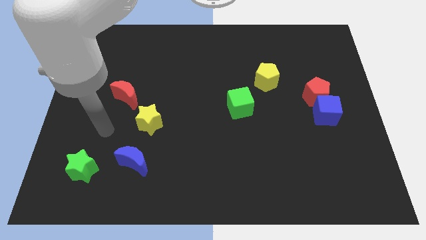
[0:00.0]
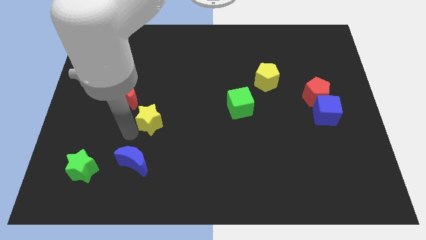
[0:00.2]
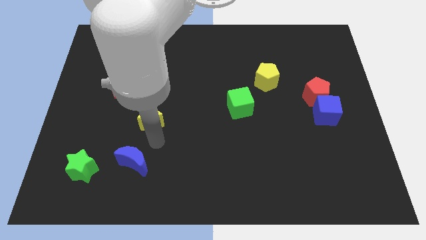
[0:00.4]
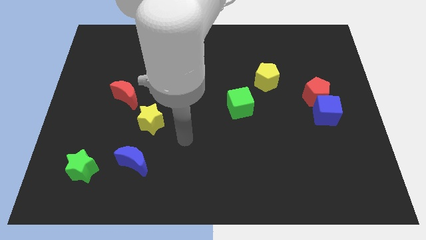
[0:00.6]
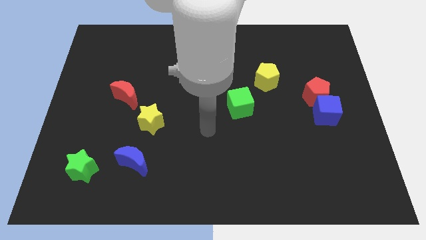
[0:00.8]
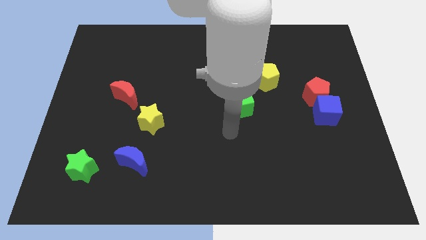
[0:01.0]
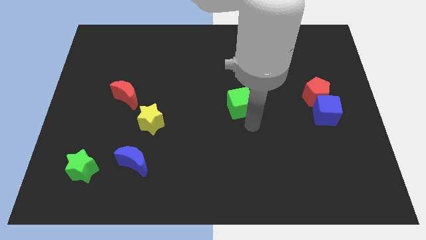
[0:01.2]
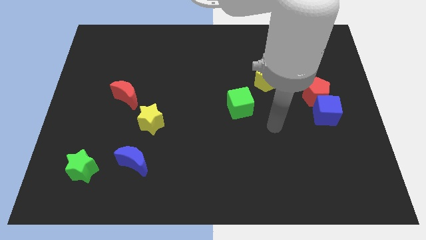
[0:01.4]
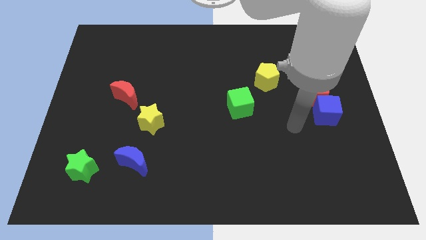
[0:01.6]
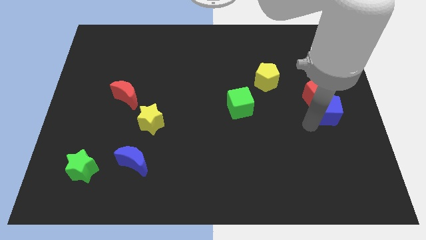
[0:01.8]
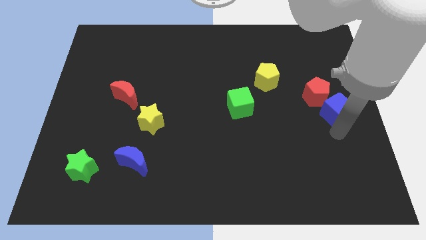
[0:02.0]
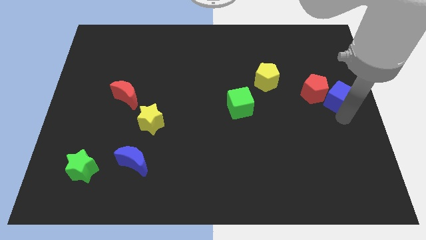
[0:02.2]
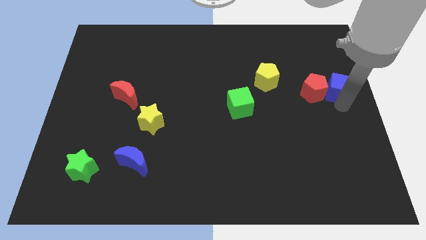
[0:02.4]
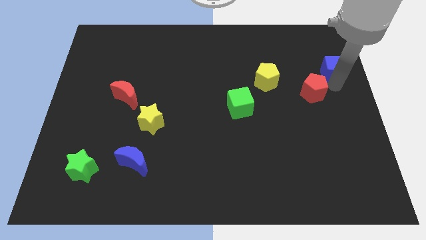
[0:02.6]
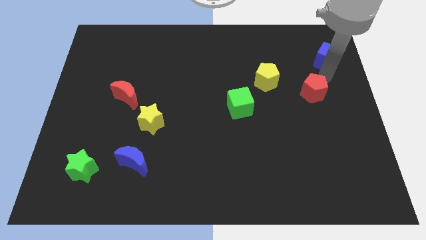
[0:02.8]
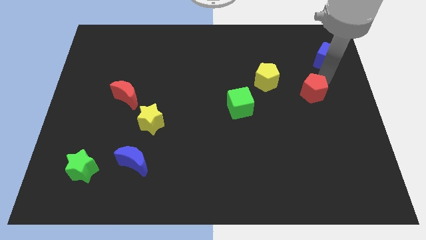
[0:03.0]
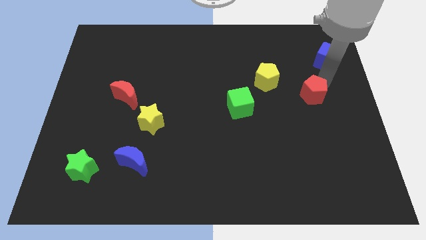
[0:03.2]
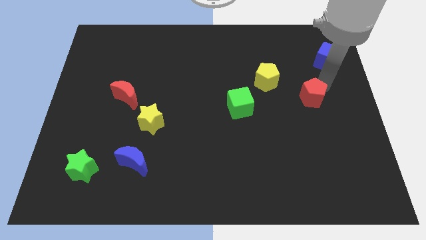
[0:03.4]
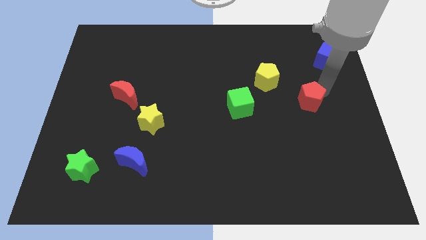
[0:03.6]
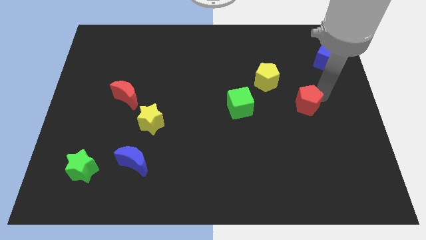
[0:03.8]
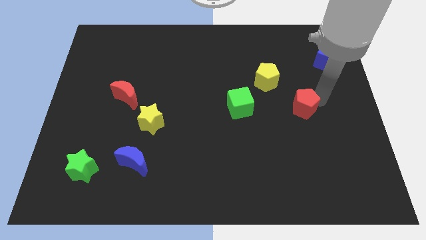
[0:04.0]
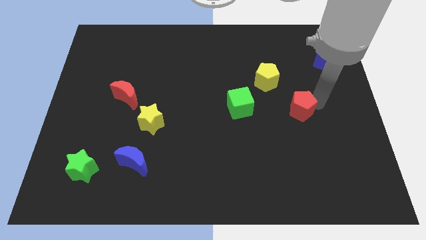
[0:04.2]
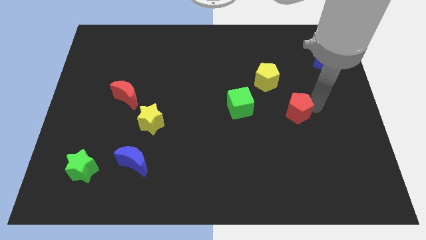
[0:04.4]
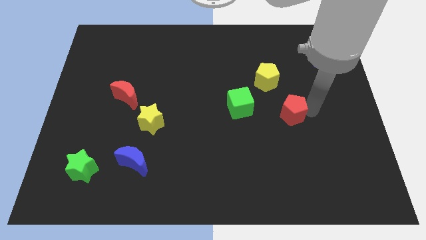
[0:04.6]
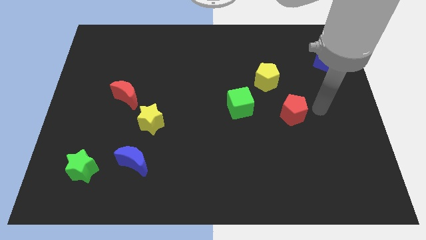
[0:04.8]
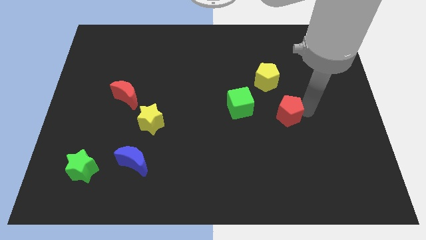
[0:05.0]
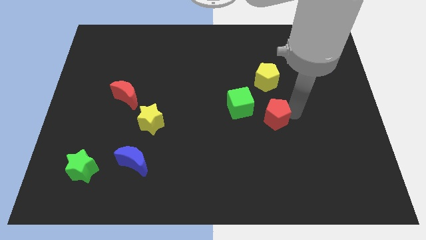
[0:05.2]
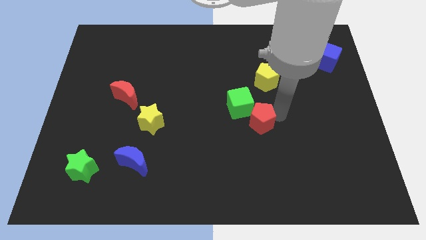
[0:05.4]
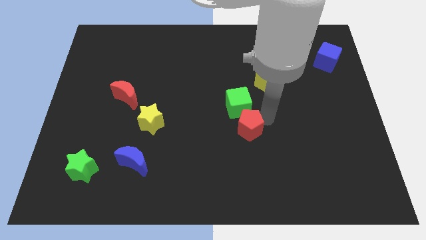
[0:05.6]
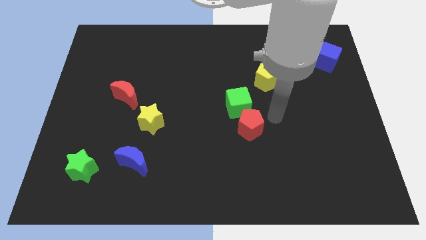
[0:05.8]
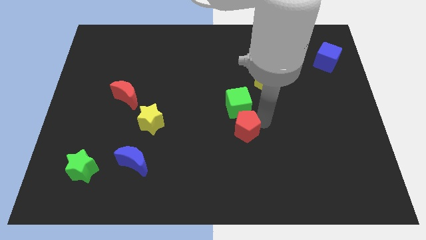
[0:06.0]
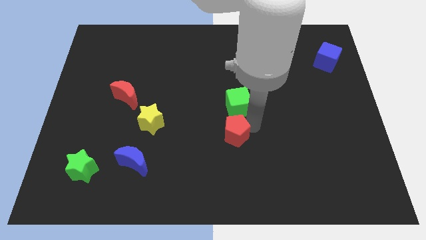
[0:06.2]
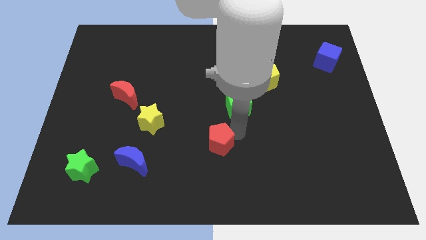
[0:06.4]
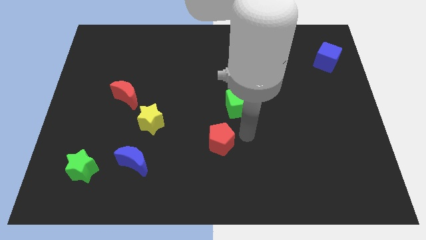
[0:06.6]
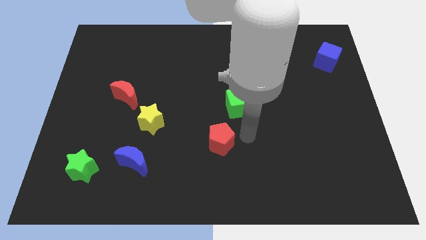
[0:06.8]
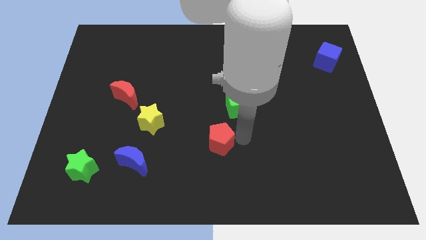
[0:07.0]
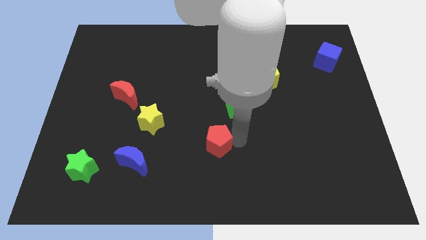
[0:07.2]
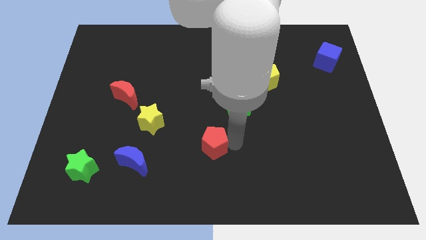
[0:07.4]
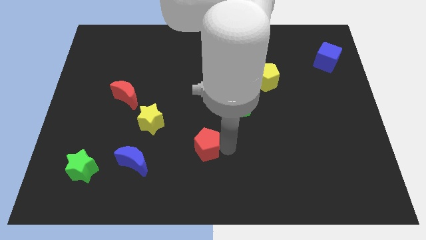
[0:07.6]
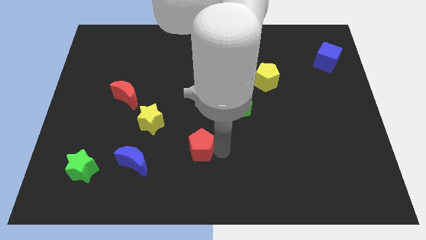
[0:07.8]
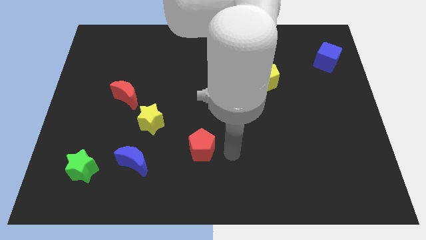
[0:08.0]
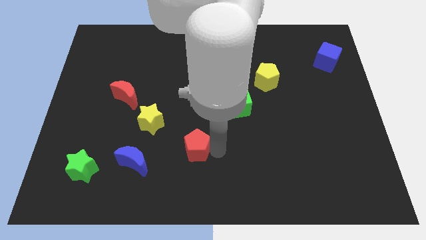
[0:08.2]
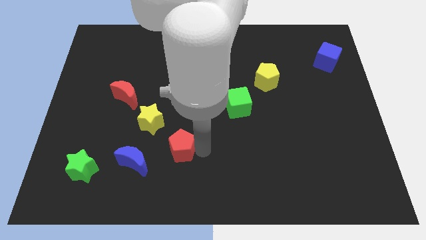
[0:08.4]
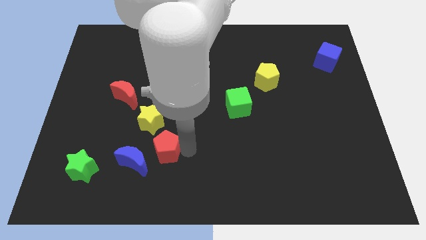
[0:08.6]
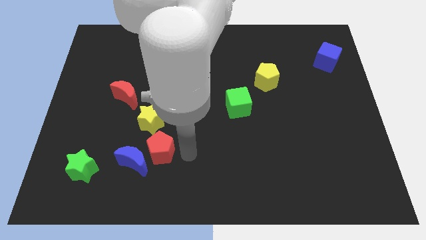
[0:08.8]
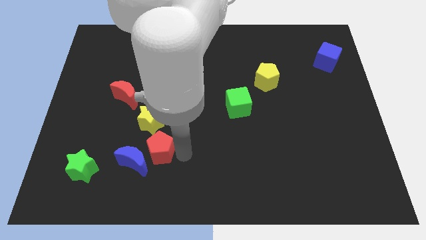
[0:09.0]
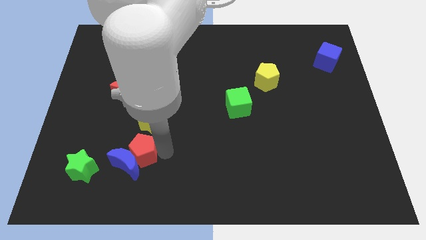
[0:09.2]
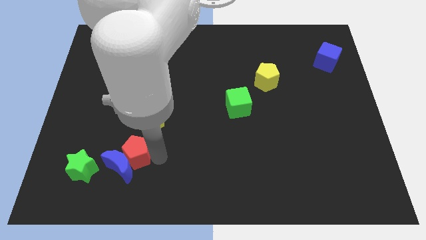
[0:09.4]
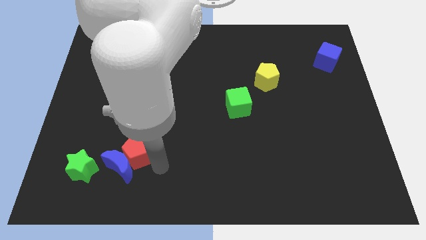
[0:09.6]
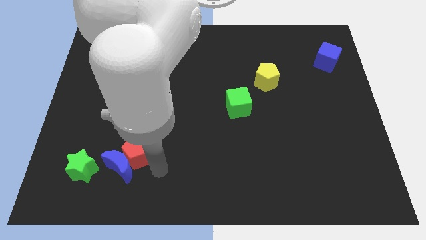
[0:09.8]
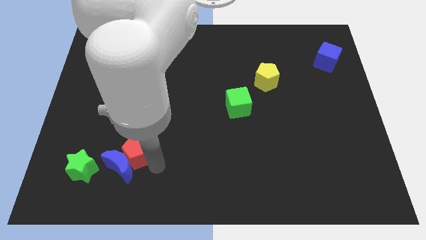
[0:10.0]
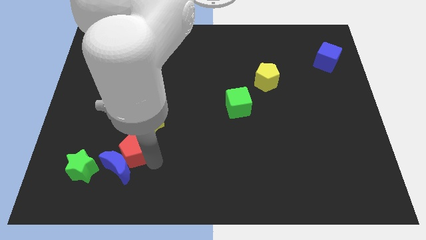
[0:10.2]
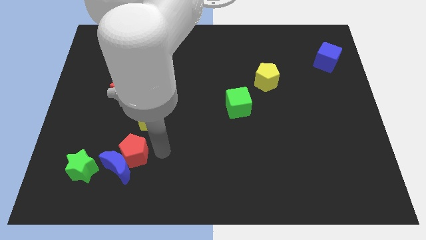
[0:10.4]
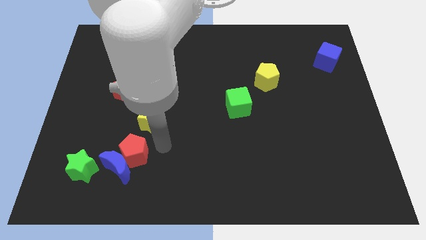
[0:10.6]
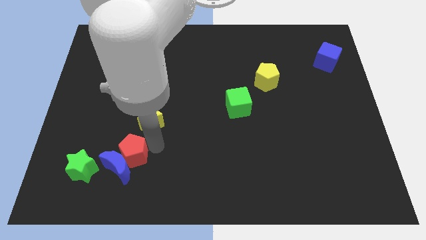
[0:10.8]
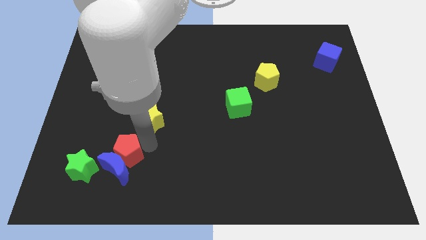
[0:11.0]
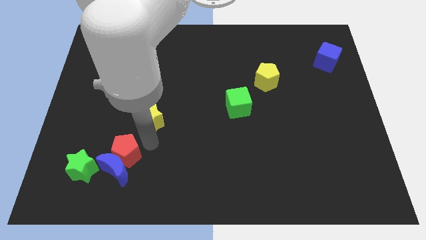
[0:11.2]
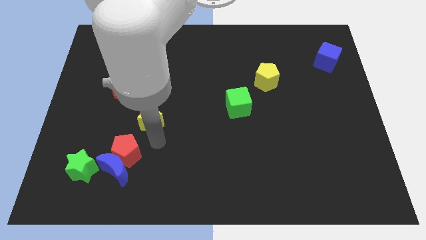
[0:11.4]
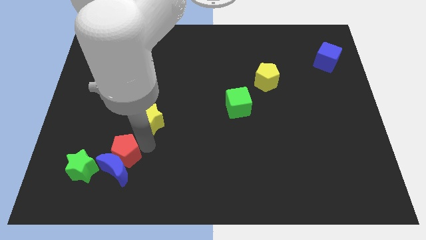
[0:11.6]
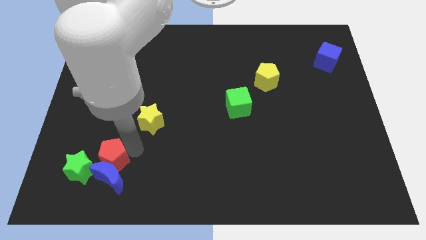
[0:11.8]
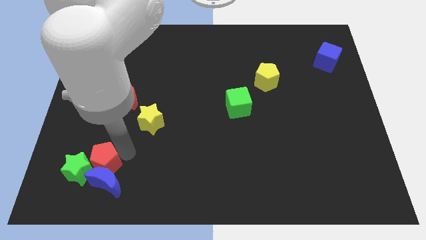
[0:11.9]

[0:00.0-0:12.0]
push the red pentagon next to the green star

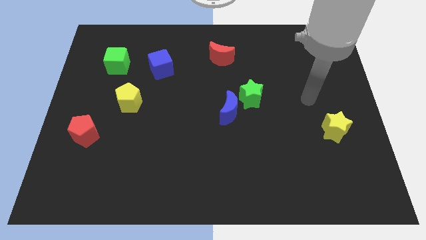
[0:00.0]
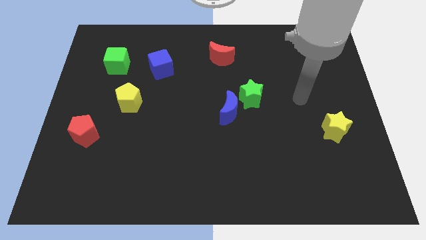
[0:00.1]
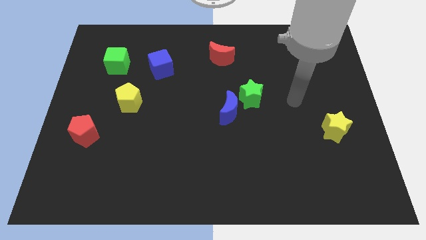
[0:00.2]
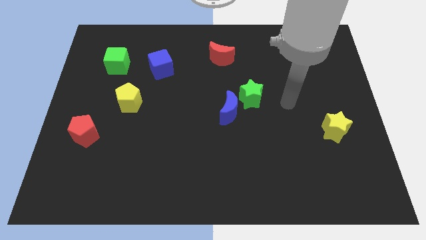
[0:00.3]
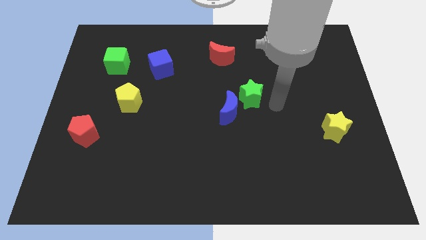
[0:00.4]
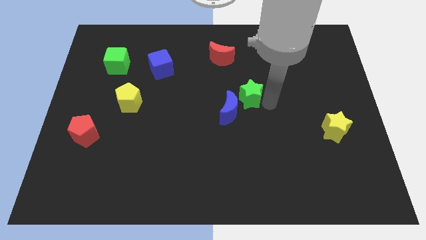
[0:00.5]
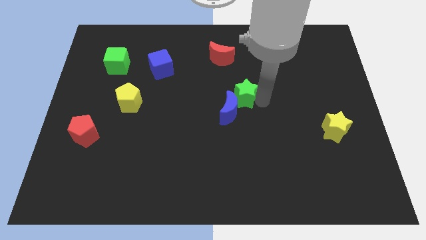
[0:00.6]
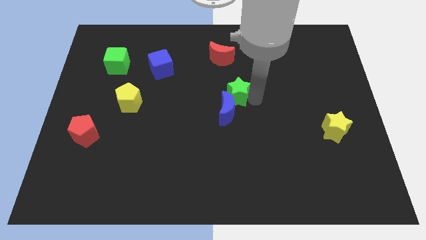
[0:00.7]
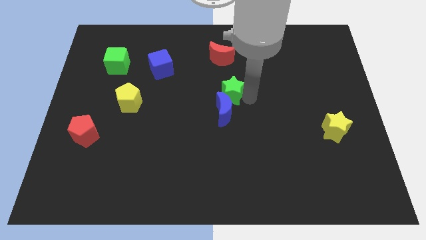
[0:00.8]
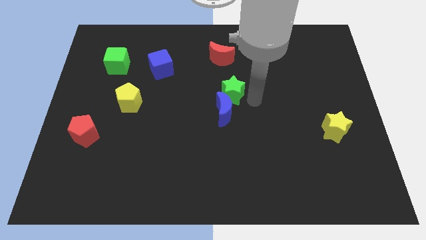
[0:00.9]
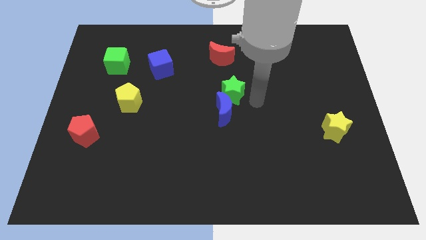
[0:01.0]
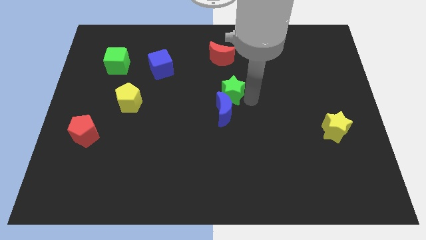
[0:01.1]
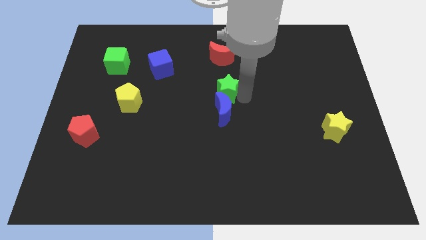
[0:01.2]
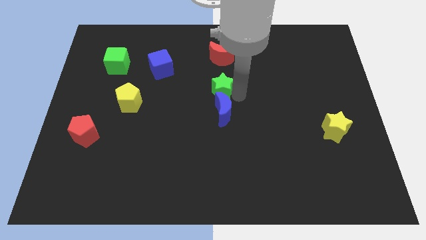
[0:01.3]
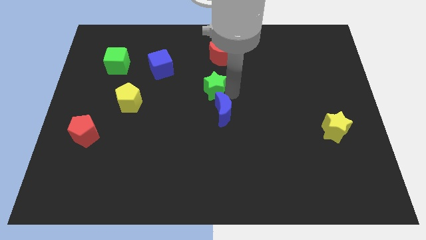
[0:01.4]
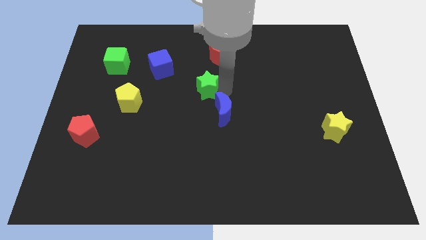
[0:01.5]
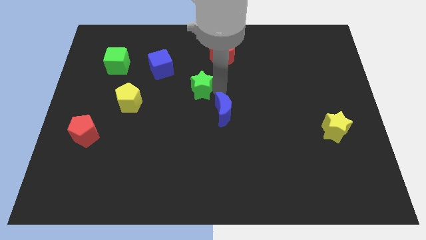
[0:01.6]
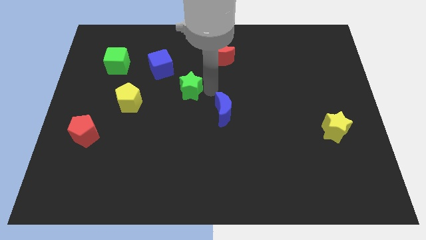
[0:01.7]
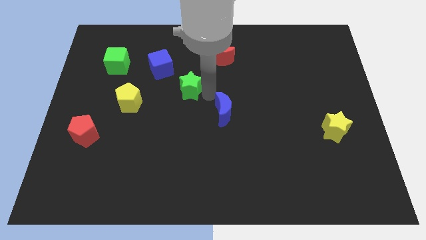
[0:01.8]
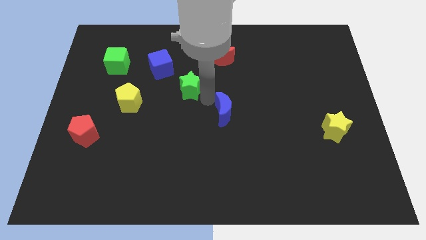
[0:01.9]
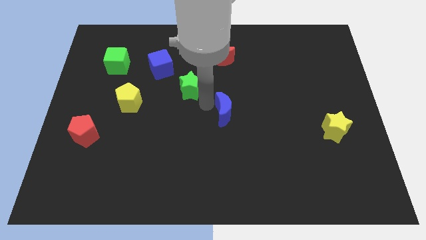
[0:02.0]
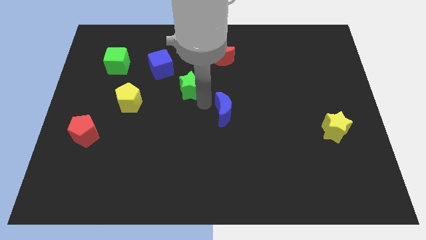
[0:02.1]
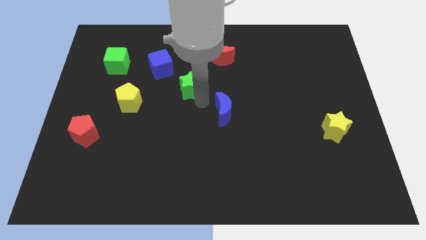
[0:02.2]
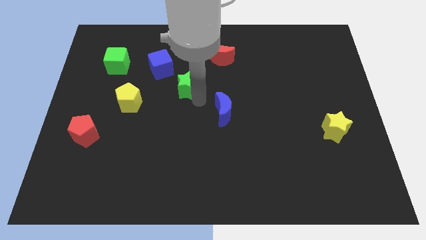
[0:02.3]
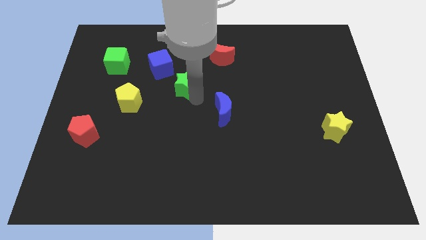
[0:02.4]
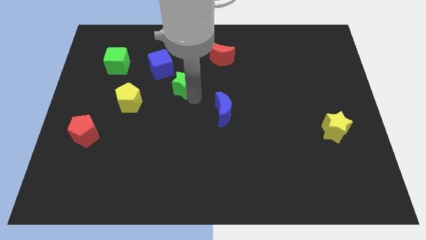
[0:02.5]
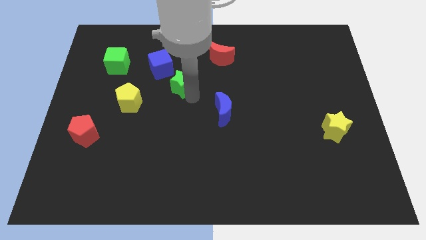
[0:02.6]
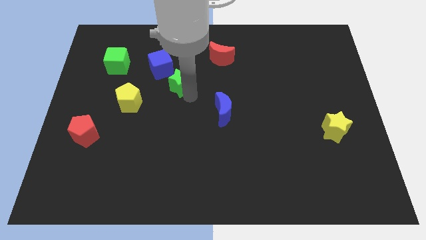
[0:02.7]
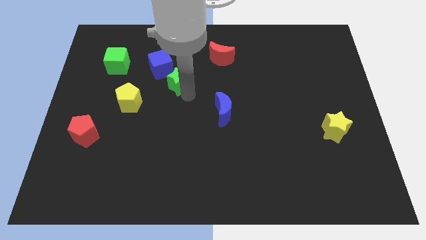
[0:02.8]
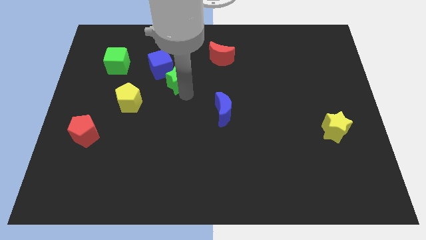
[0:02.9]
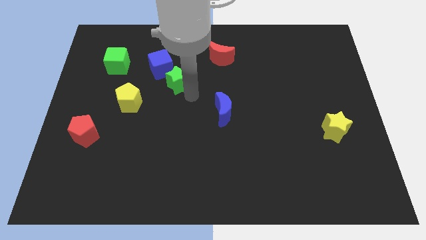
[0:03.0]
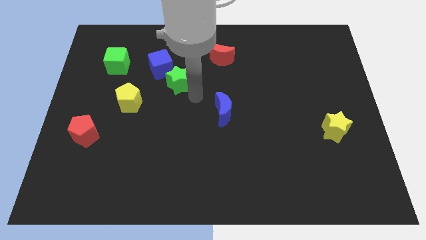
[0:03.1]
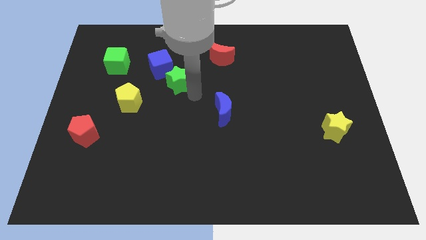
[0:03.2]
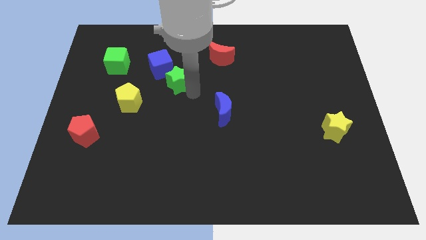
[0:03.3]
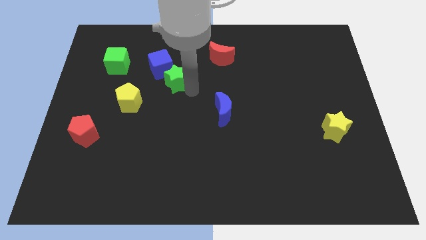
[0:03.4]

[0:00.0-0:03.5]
push the green star towards the blue cube
